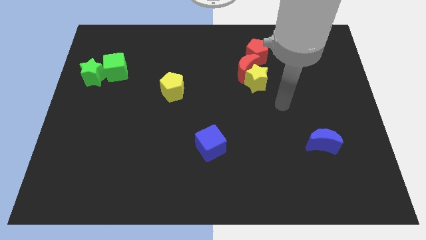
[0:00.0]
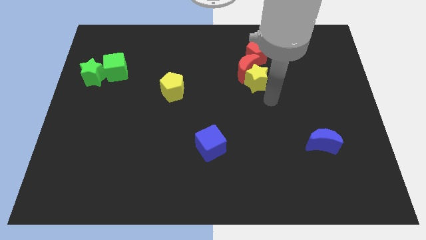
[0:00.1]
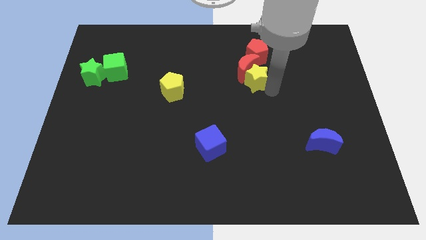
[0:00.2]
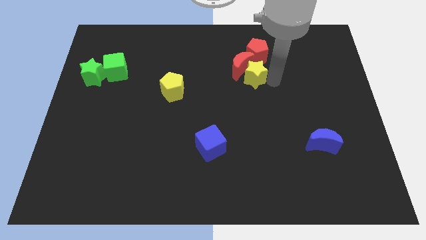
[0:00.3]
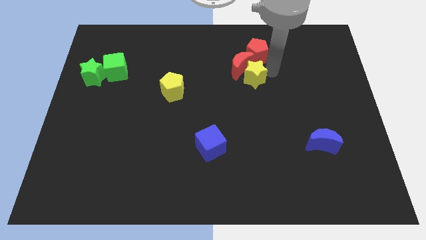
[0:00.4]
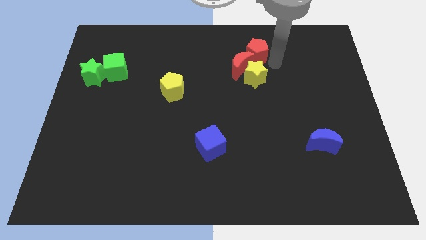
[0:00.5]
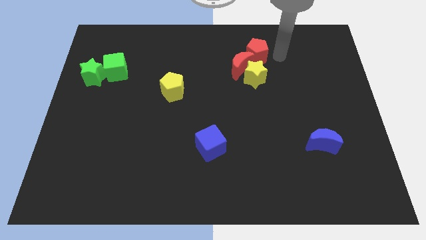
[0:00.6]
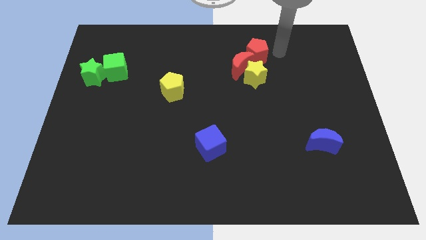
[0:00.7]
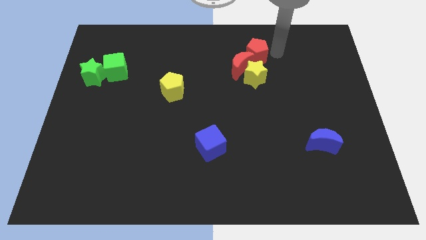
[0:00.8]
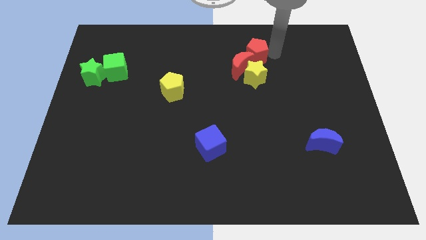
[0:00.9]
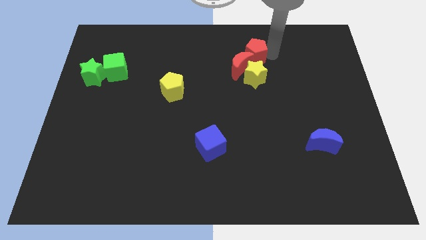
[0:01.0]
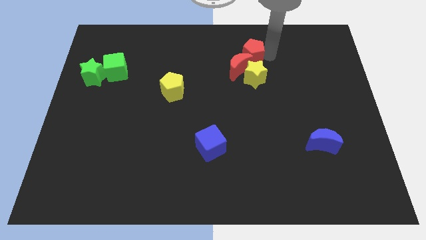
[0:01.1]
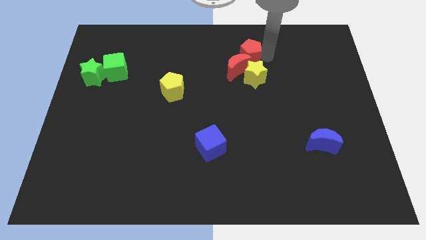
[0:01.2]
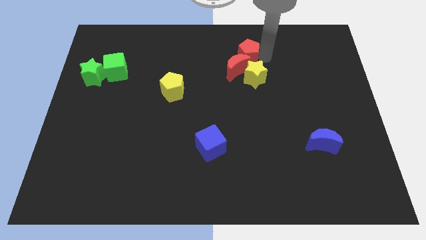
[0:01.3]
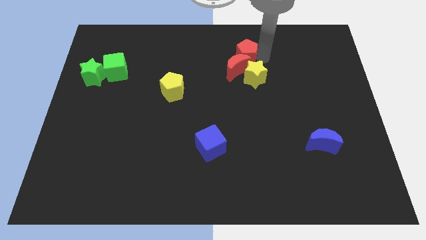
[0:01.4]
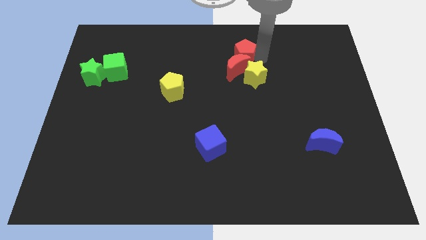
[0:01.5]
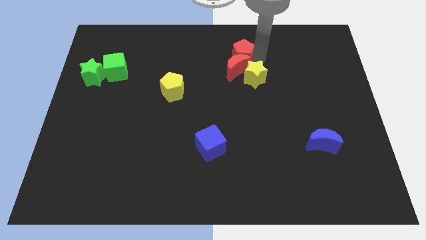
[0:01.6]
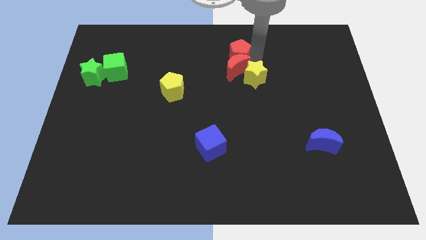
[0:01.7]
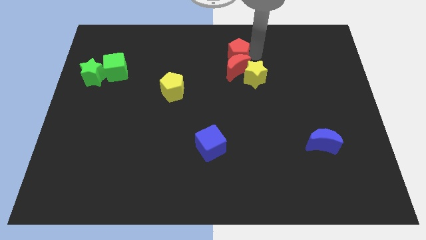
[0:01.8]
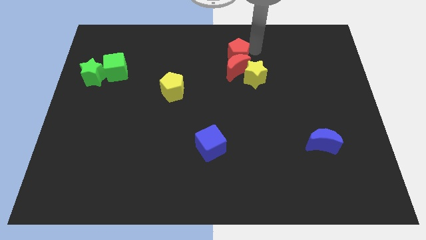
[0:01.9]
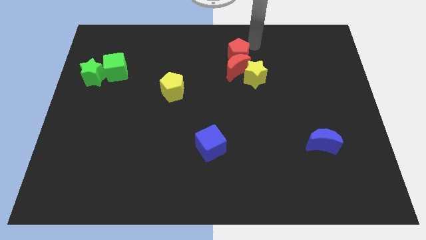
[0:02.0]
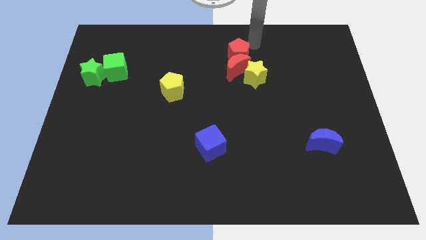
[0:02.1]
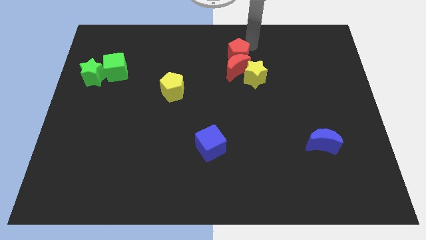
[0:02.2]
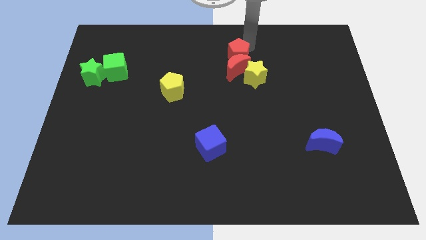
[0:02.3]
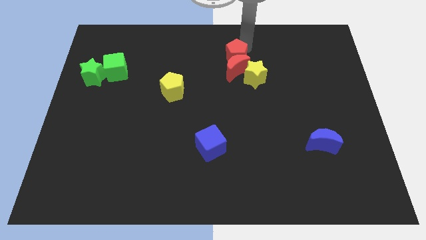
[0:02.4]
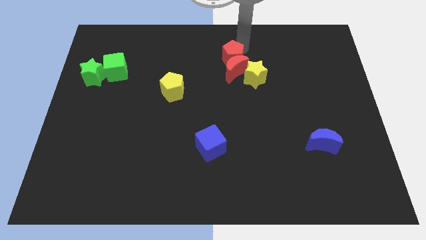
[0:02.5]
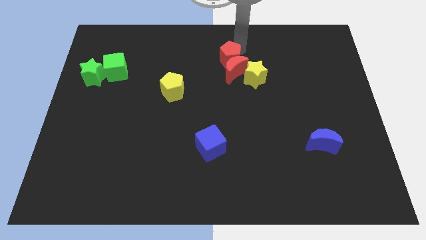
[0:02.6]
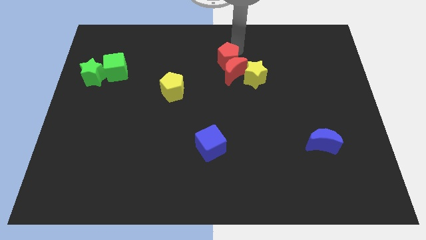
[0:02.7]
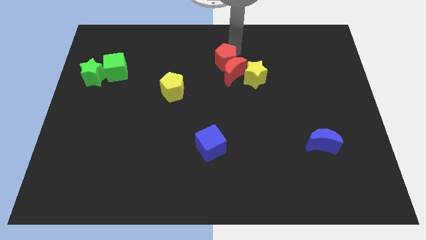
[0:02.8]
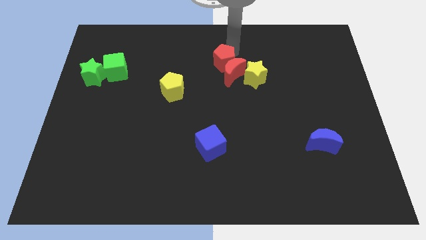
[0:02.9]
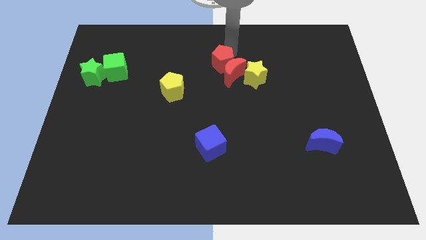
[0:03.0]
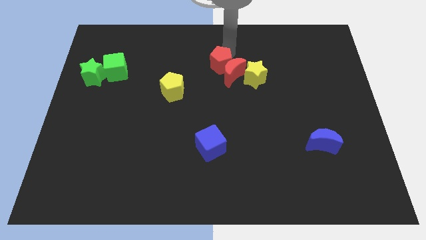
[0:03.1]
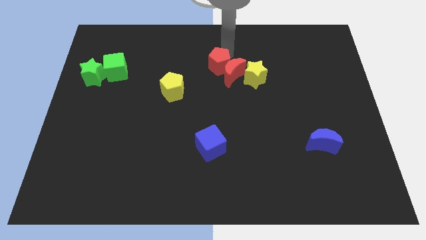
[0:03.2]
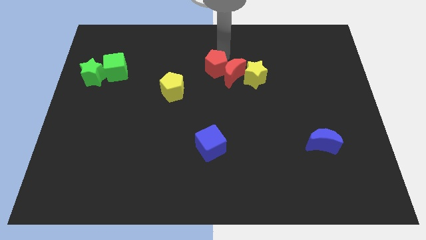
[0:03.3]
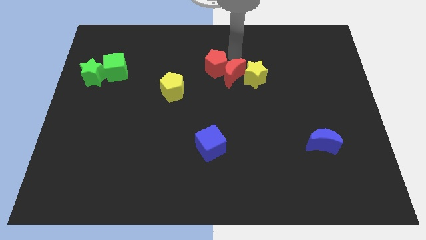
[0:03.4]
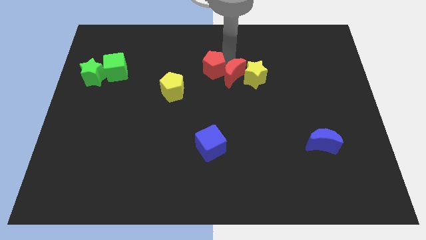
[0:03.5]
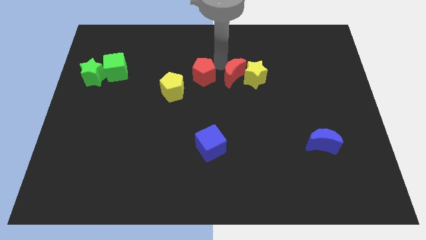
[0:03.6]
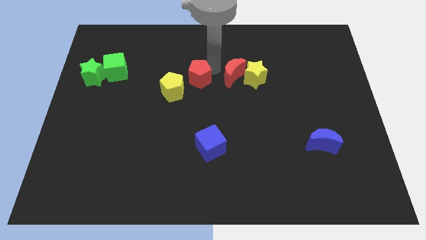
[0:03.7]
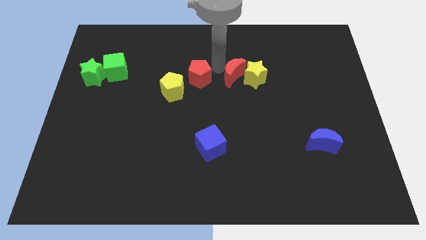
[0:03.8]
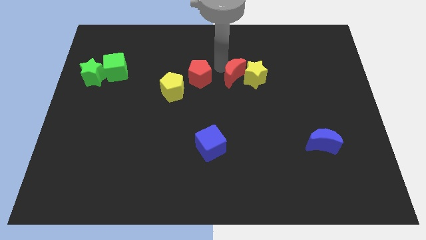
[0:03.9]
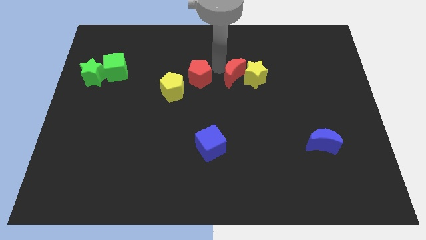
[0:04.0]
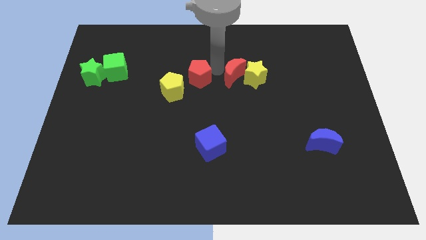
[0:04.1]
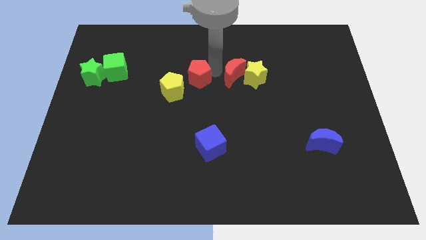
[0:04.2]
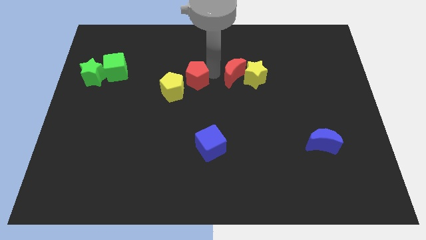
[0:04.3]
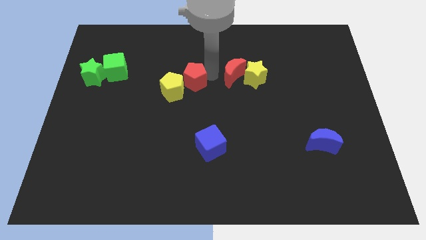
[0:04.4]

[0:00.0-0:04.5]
push the red pentagon close to the yellow pentagon

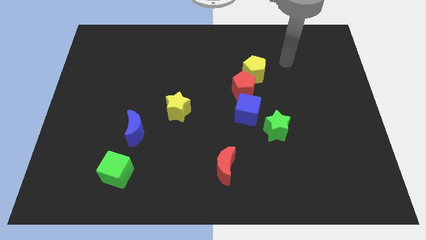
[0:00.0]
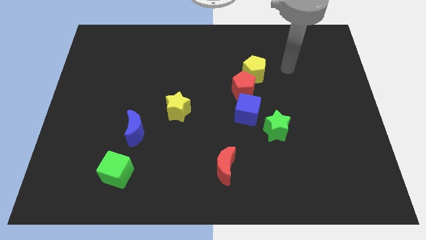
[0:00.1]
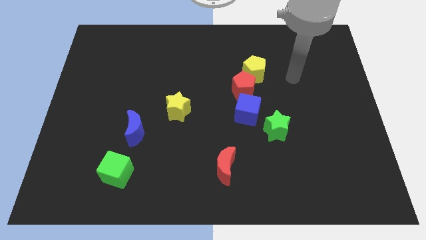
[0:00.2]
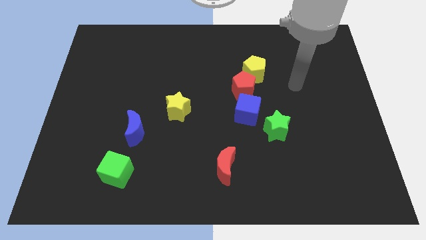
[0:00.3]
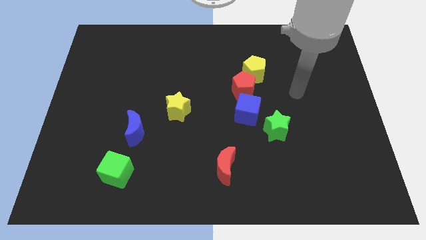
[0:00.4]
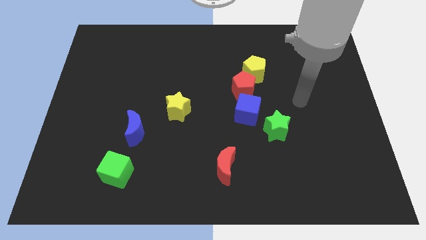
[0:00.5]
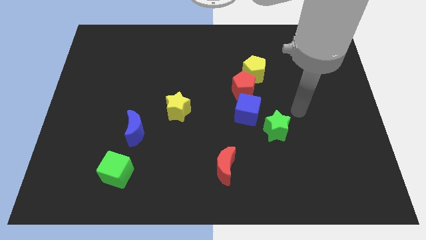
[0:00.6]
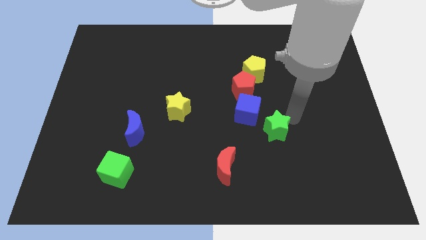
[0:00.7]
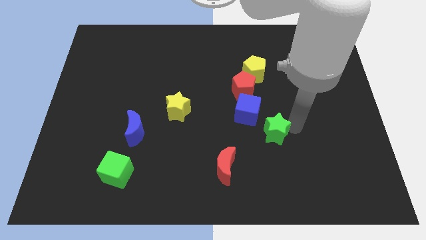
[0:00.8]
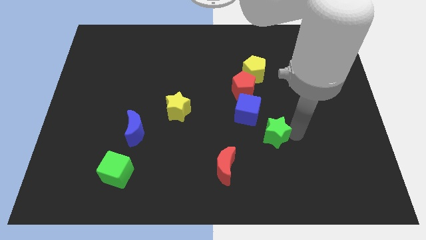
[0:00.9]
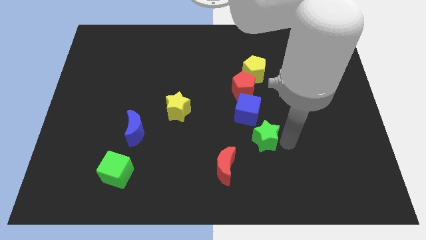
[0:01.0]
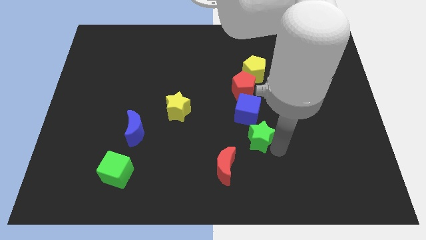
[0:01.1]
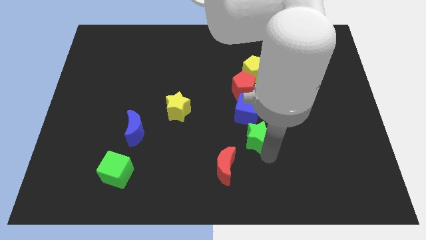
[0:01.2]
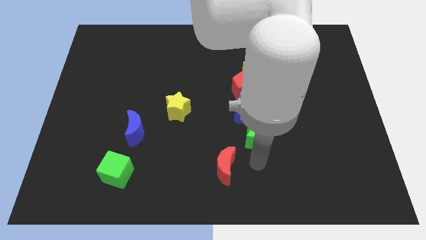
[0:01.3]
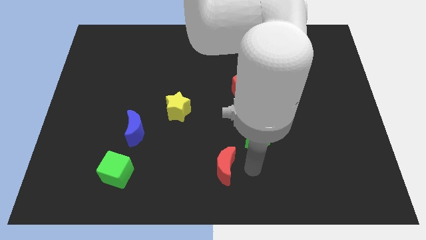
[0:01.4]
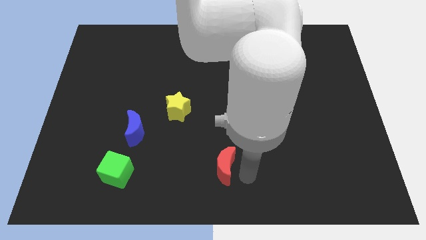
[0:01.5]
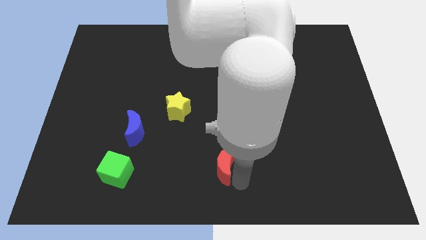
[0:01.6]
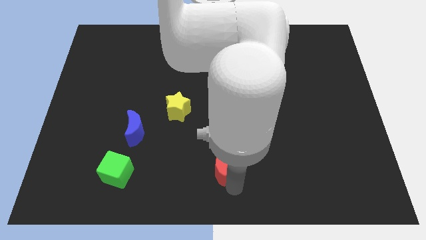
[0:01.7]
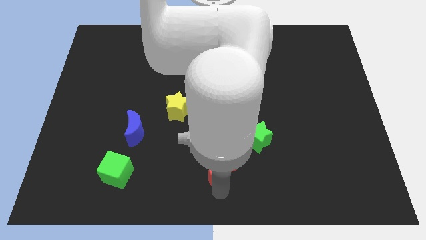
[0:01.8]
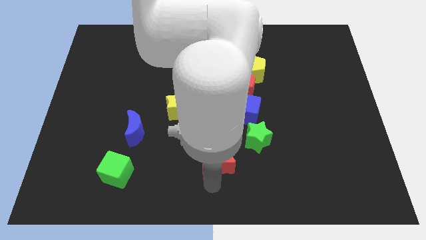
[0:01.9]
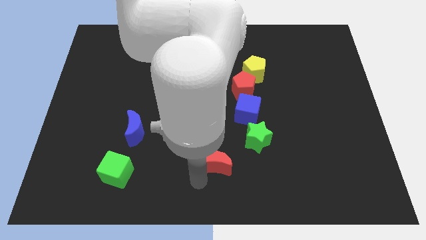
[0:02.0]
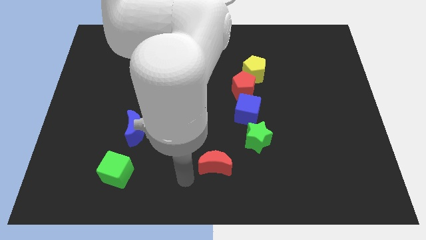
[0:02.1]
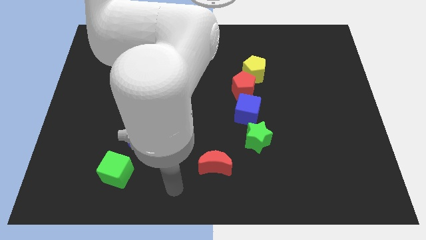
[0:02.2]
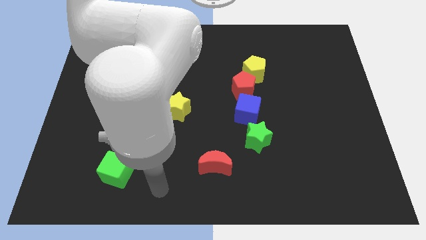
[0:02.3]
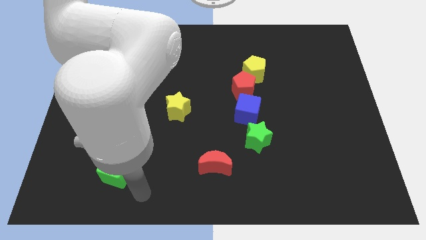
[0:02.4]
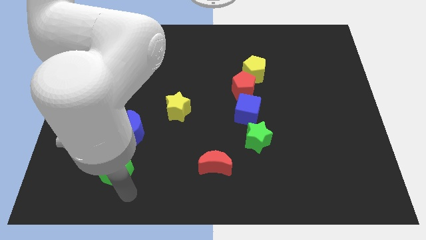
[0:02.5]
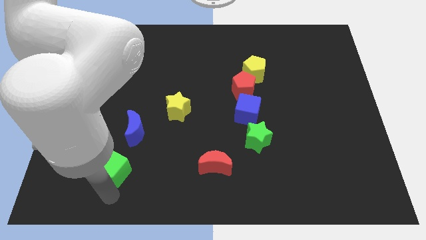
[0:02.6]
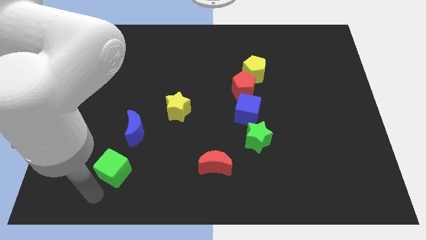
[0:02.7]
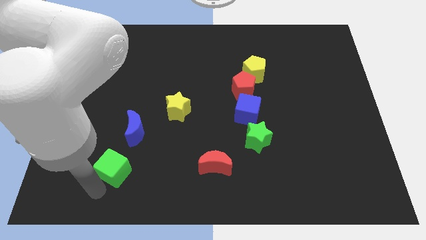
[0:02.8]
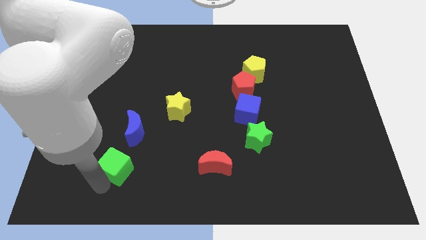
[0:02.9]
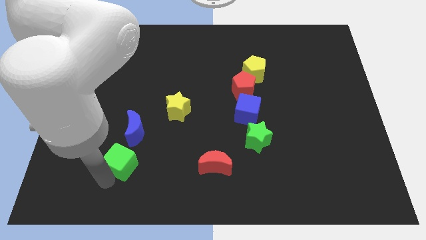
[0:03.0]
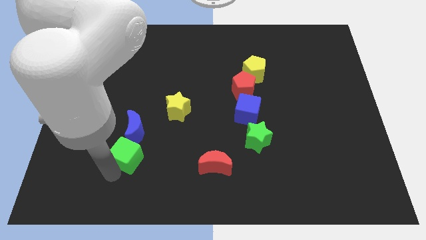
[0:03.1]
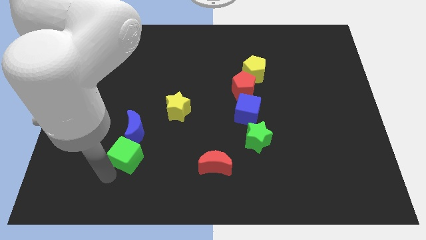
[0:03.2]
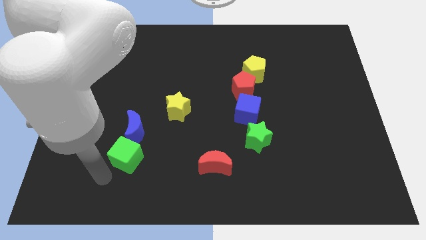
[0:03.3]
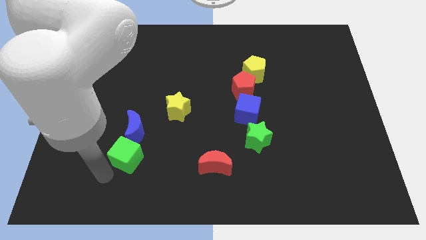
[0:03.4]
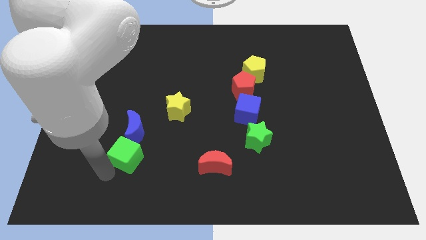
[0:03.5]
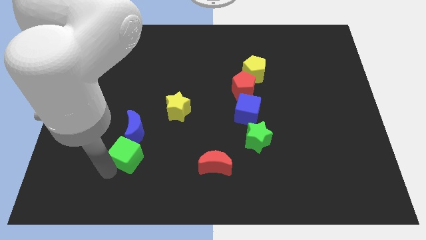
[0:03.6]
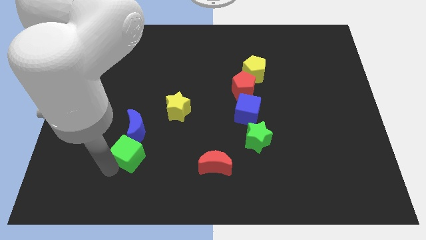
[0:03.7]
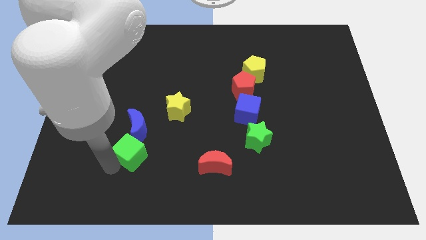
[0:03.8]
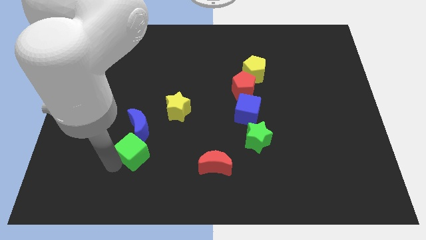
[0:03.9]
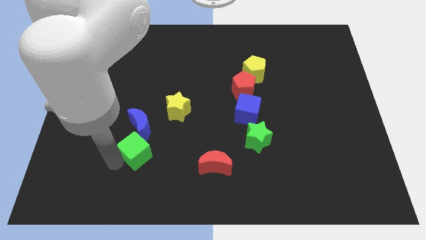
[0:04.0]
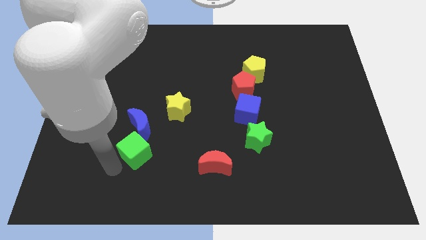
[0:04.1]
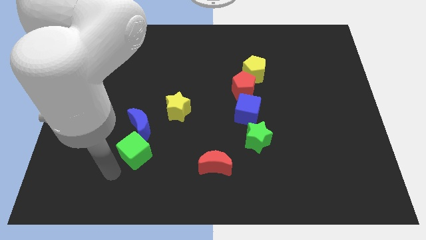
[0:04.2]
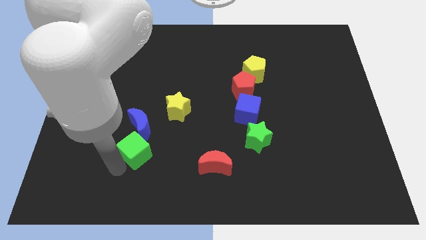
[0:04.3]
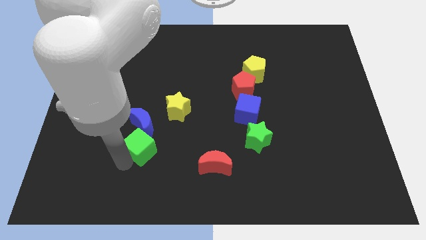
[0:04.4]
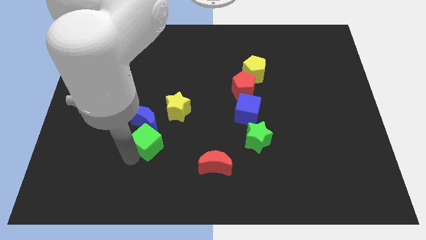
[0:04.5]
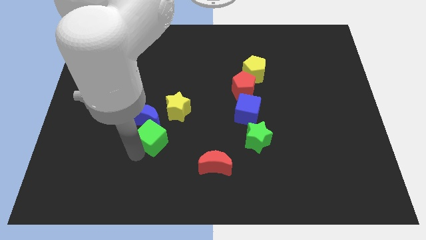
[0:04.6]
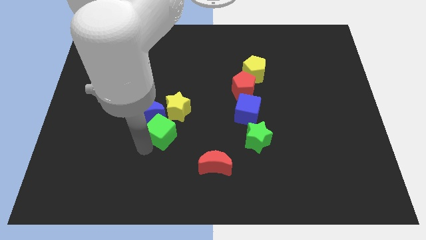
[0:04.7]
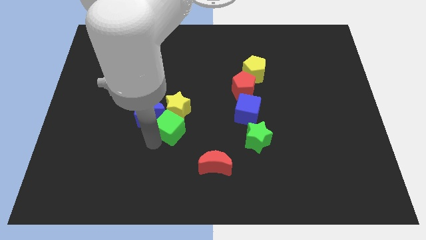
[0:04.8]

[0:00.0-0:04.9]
slide the green cube towards the yellow star
